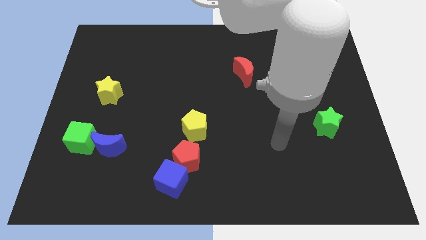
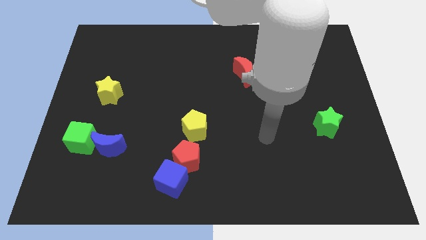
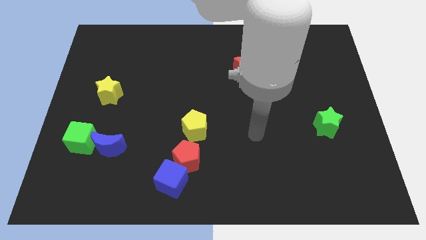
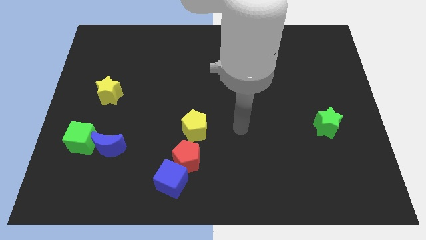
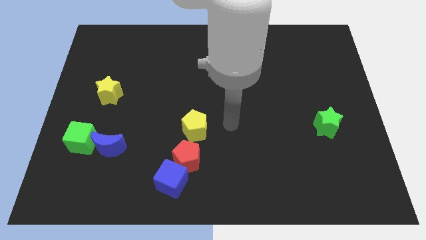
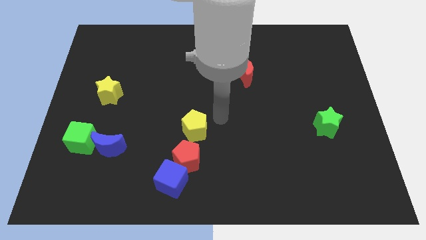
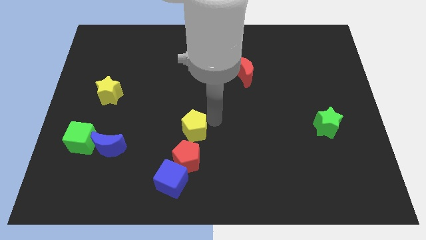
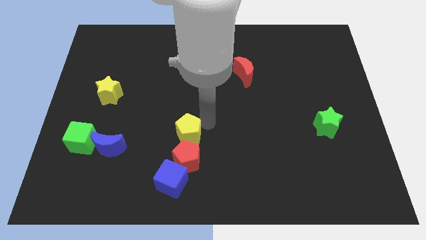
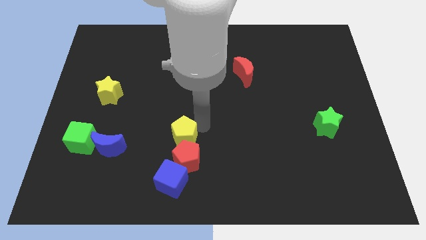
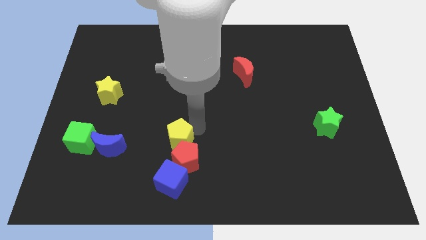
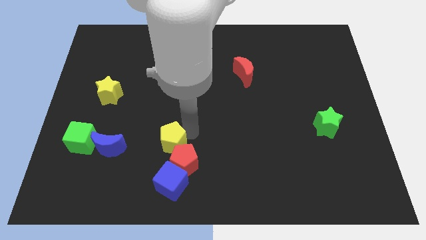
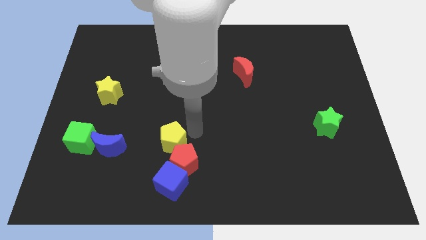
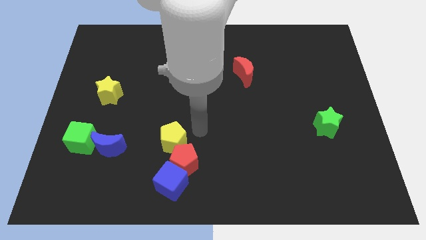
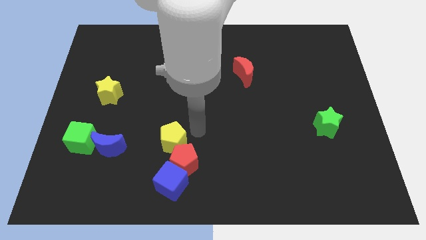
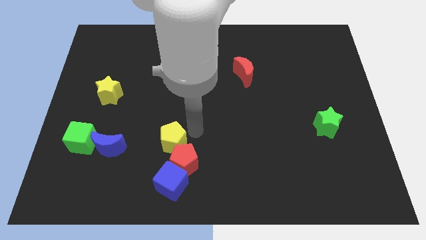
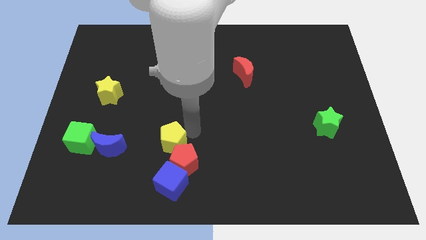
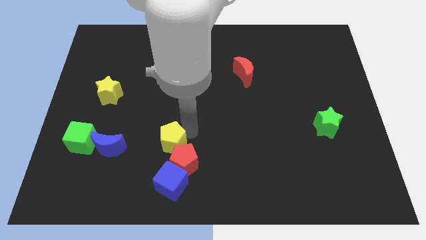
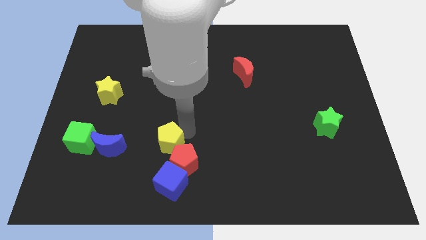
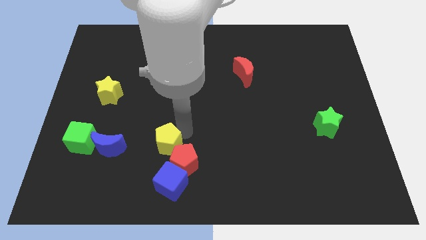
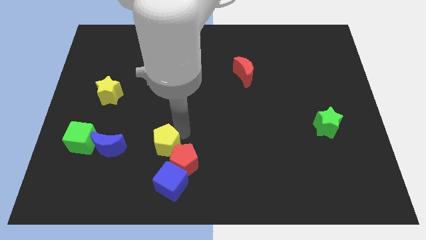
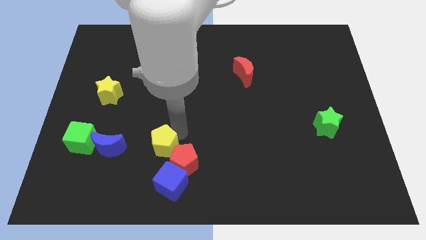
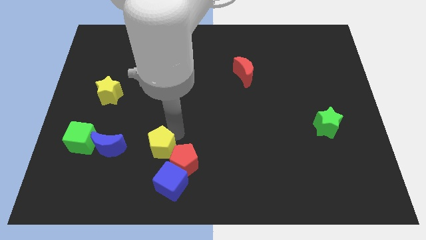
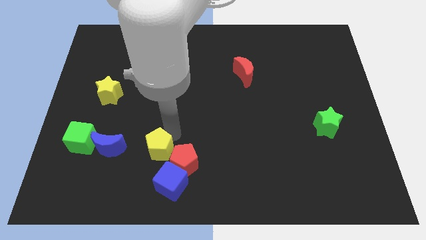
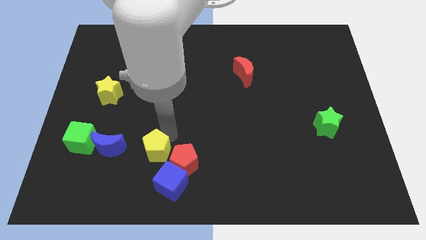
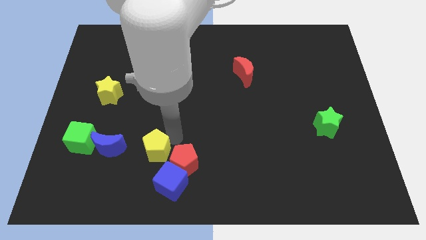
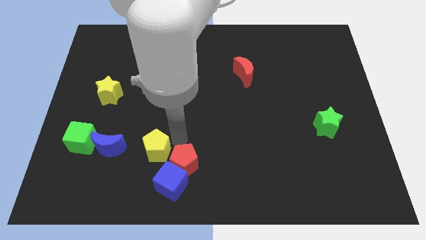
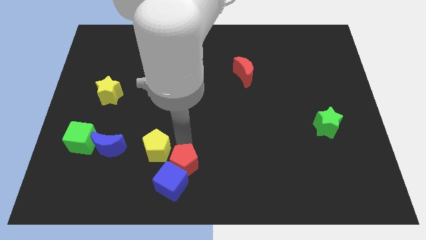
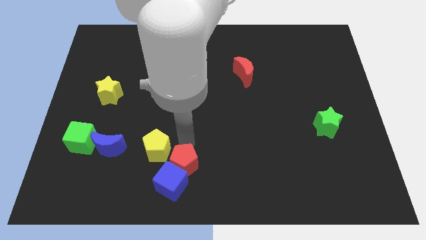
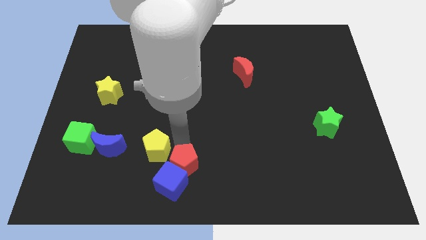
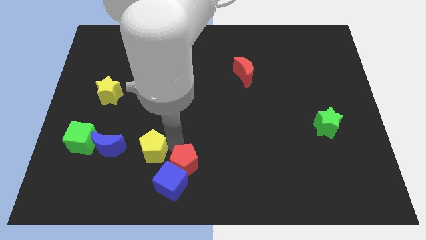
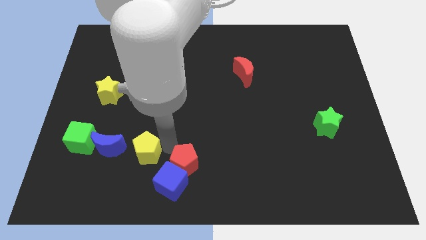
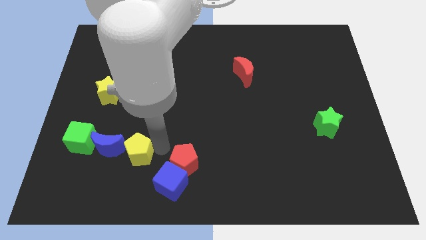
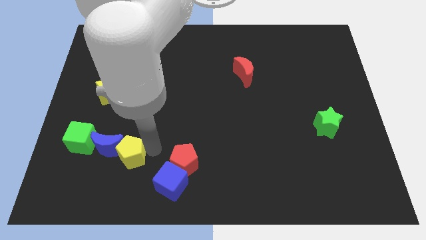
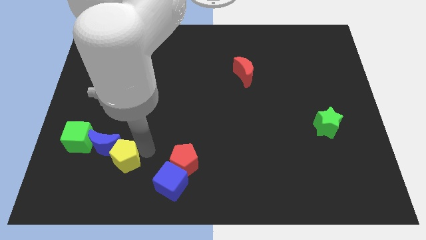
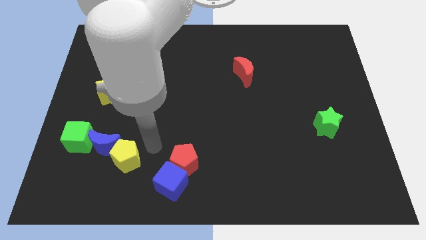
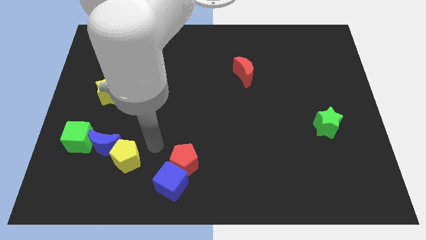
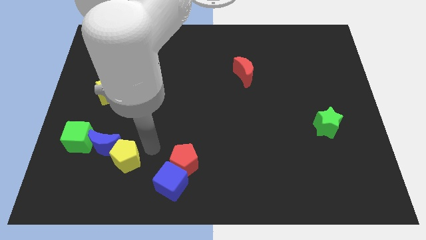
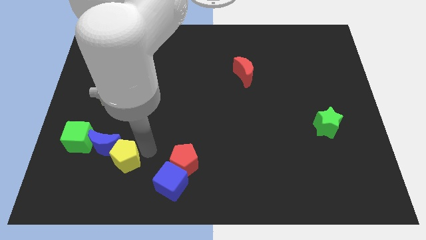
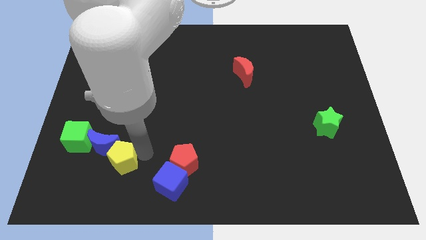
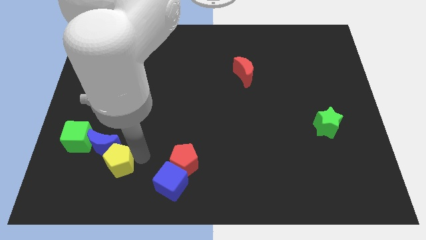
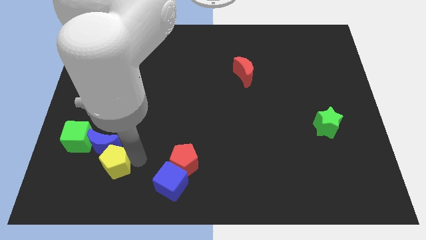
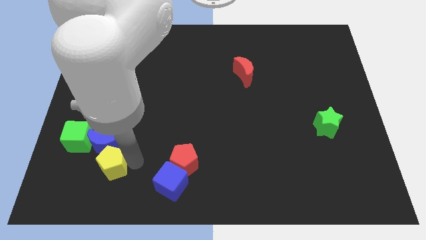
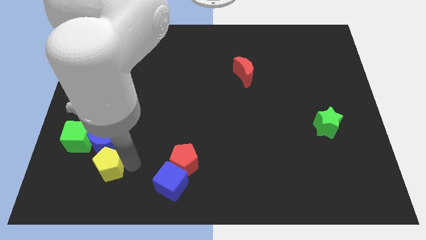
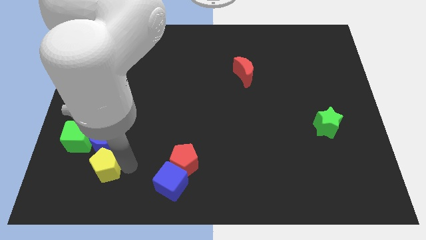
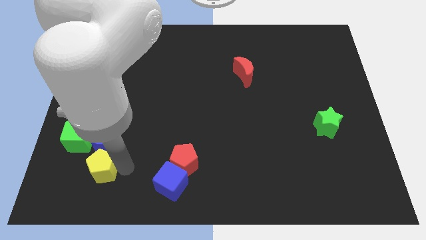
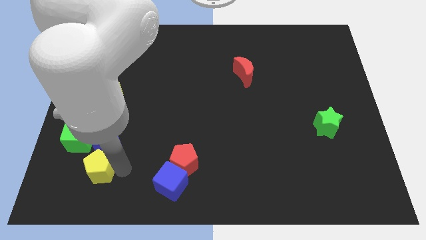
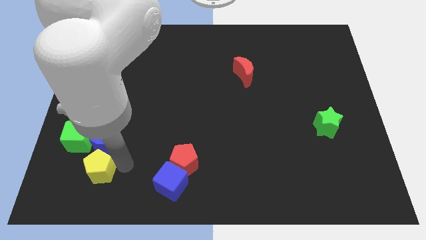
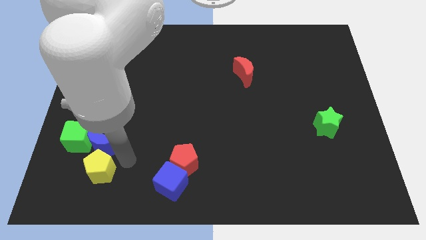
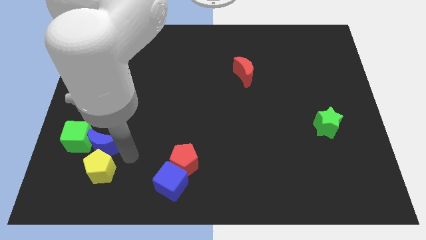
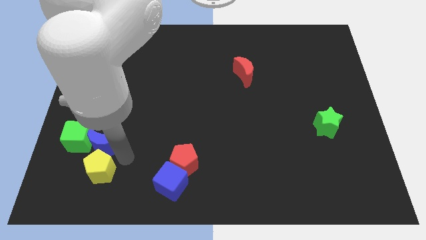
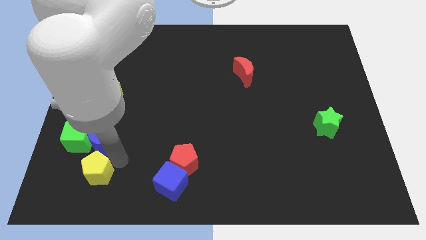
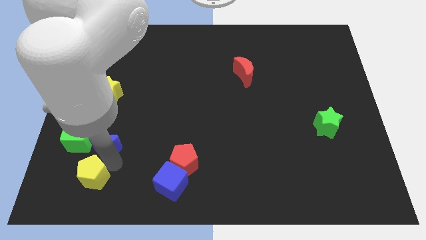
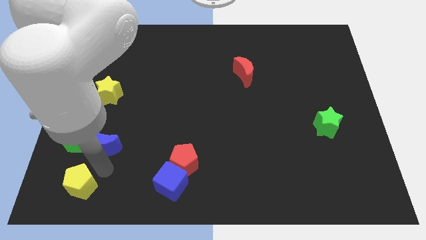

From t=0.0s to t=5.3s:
push the yellow pentagon to the bottom left

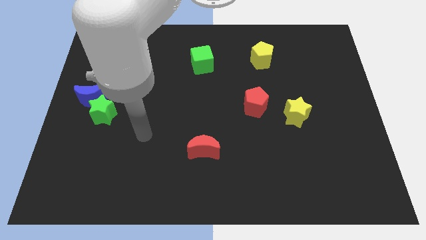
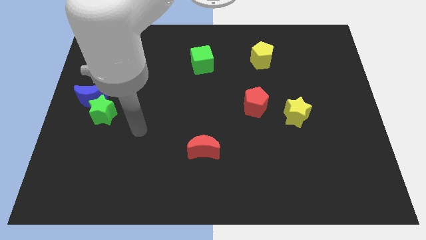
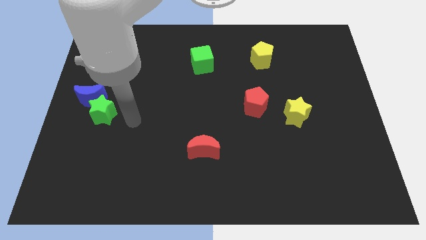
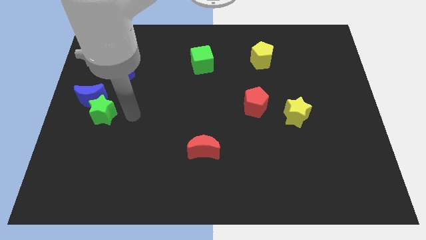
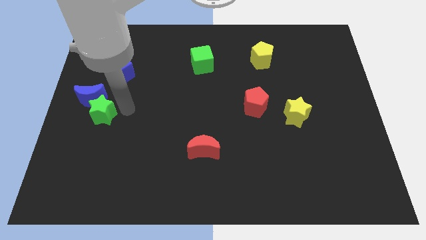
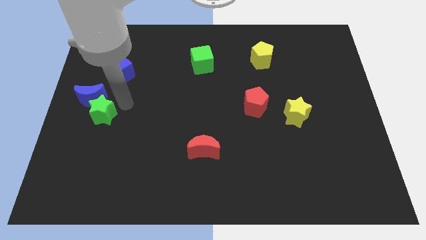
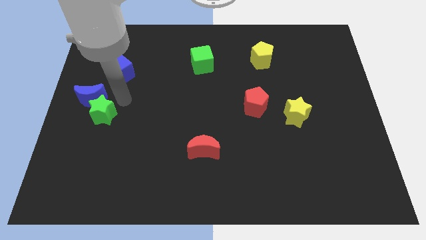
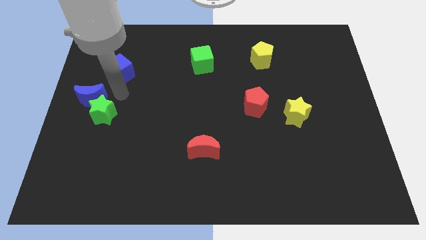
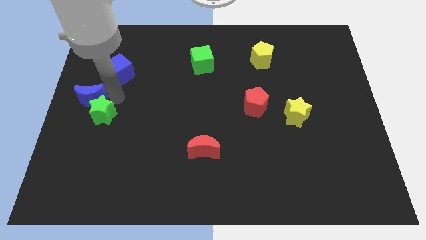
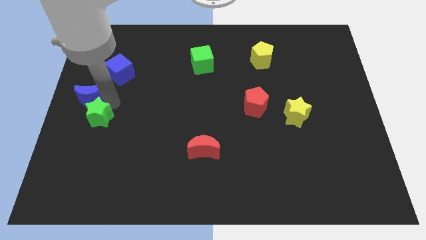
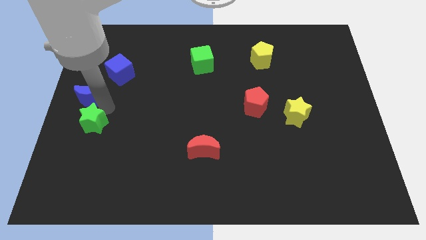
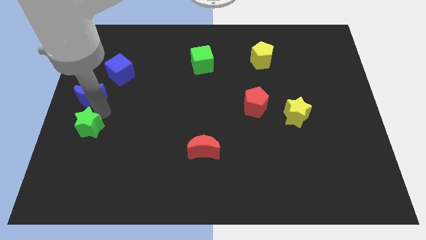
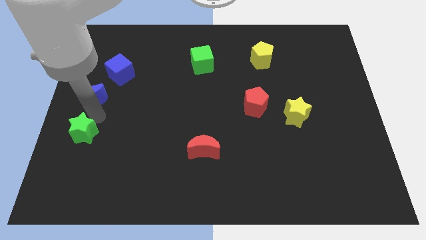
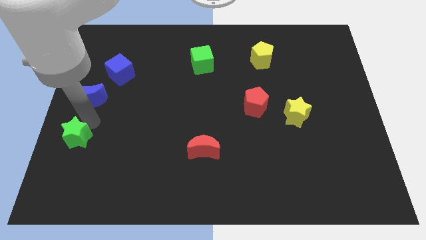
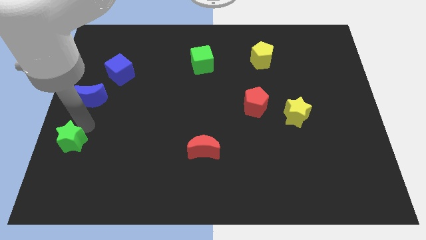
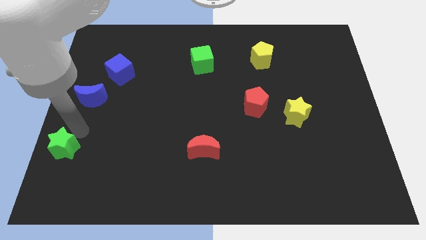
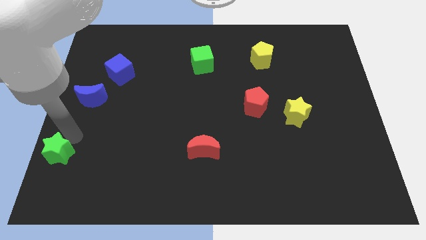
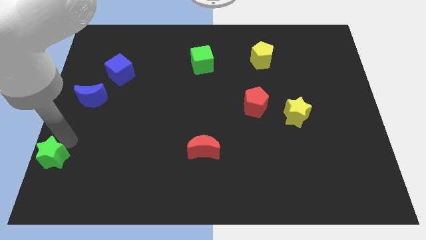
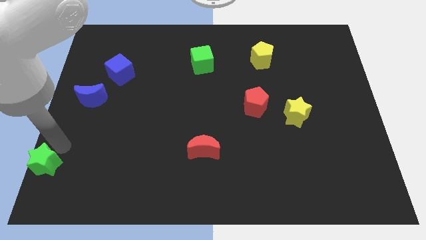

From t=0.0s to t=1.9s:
slide the green star to the bottom left
